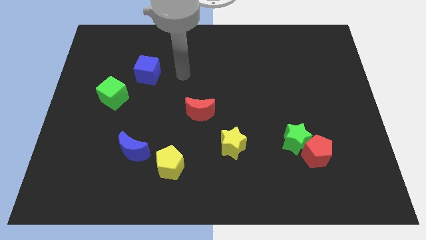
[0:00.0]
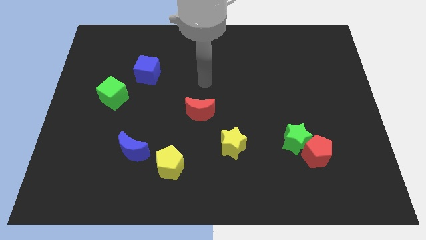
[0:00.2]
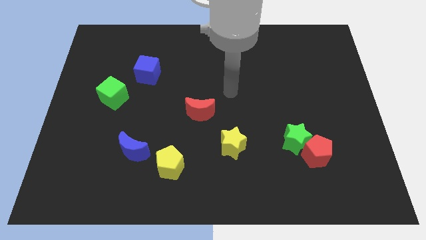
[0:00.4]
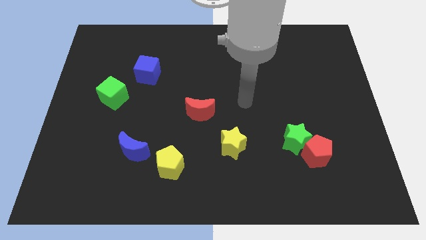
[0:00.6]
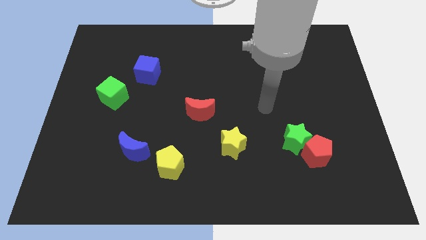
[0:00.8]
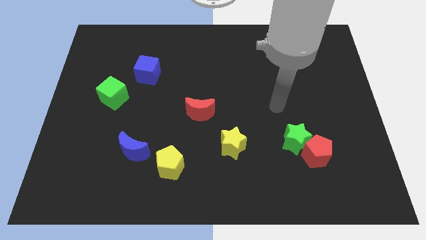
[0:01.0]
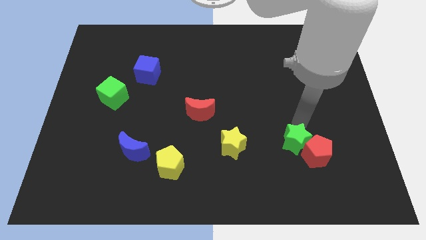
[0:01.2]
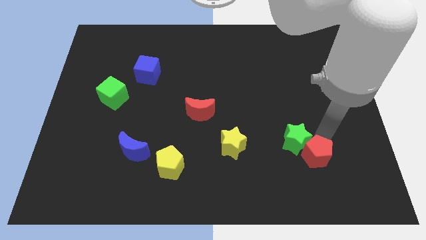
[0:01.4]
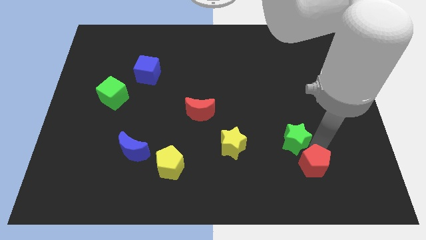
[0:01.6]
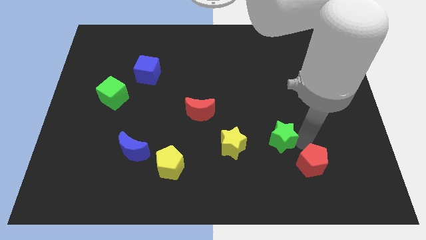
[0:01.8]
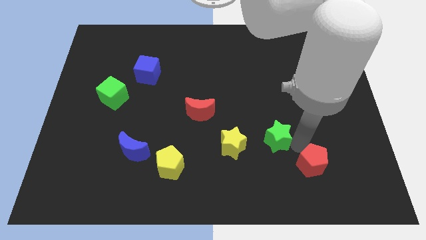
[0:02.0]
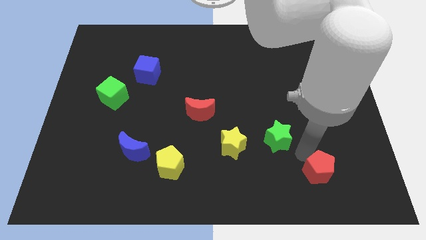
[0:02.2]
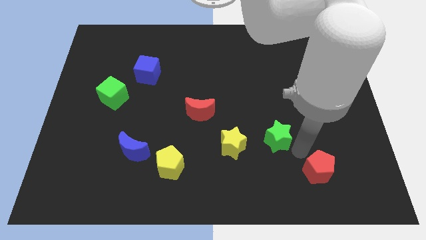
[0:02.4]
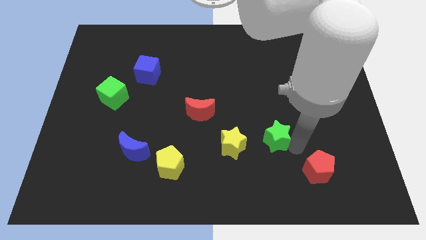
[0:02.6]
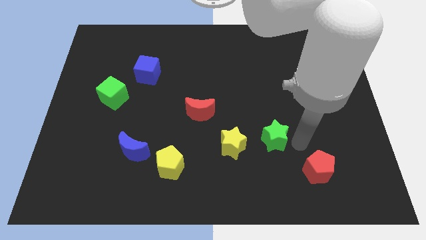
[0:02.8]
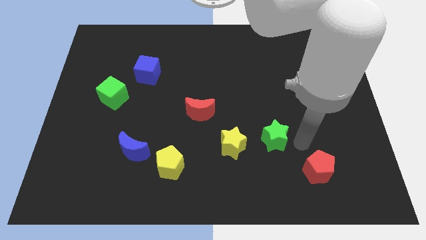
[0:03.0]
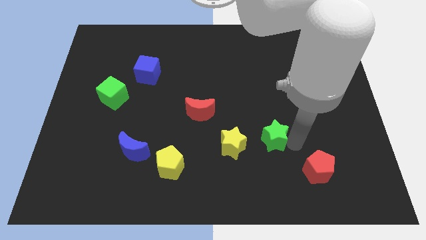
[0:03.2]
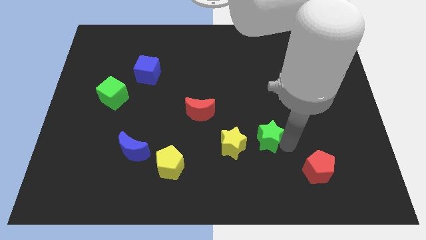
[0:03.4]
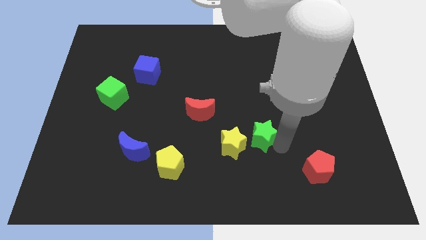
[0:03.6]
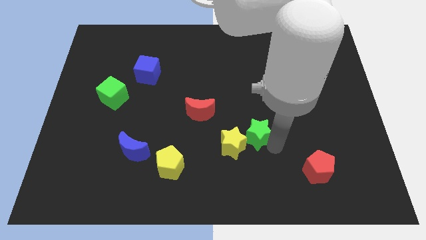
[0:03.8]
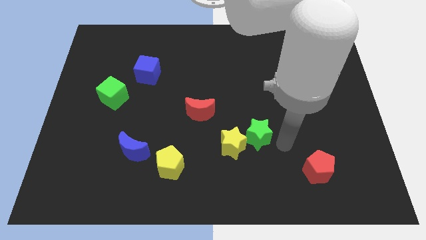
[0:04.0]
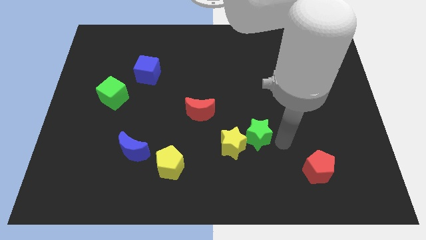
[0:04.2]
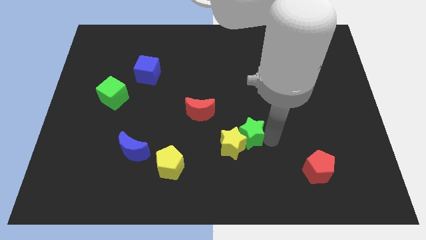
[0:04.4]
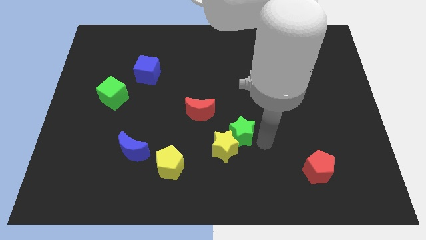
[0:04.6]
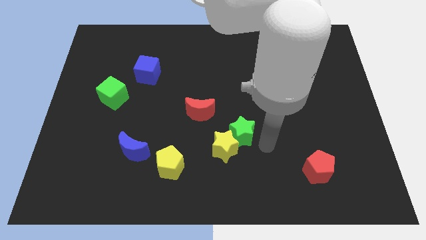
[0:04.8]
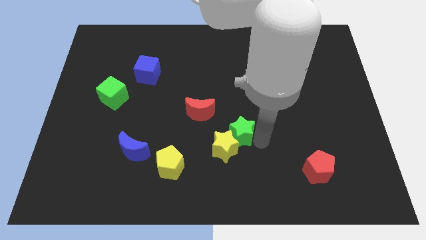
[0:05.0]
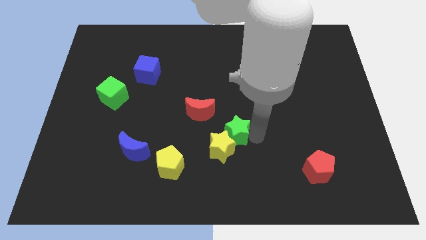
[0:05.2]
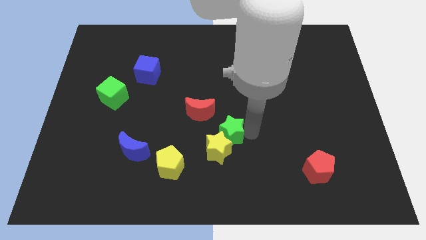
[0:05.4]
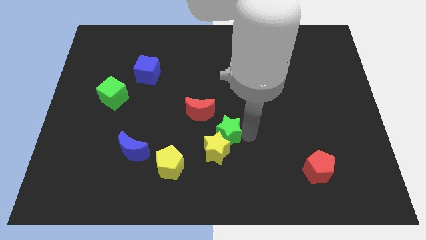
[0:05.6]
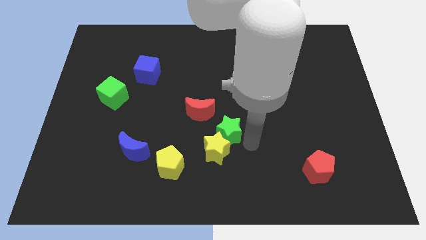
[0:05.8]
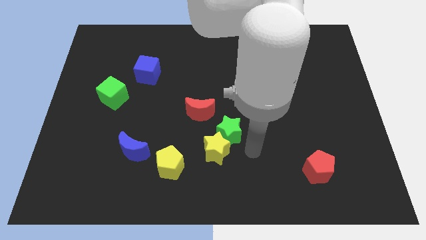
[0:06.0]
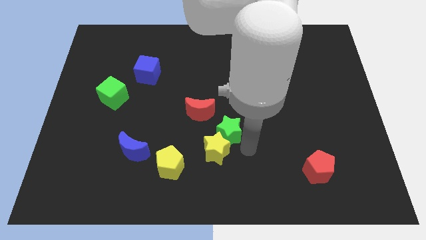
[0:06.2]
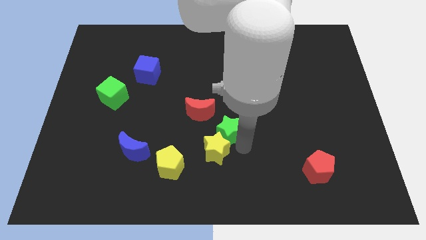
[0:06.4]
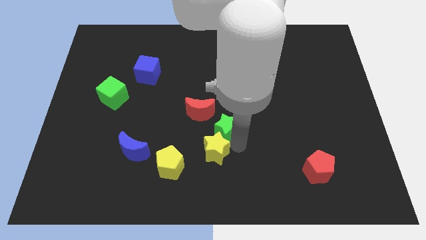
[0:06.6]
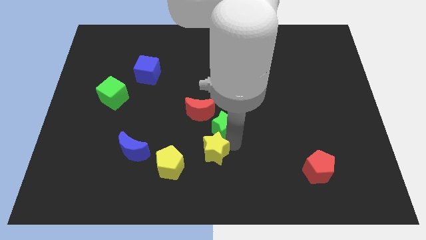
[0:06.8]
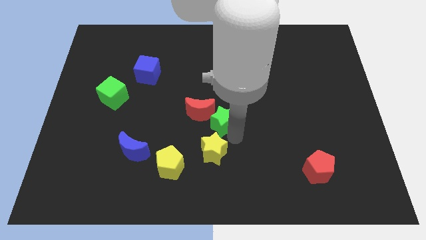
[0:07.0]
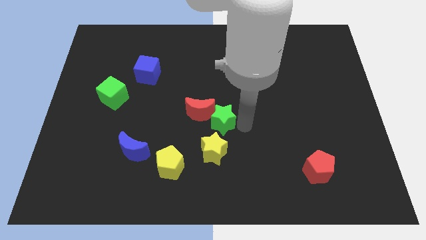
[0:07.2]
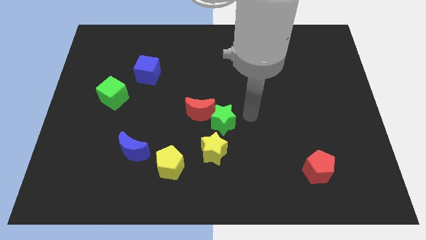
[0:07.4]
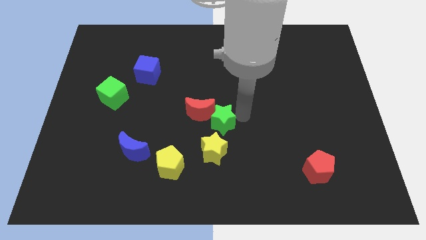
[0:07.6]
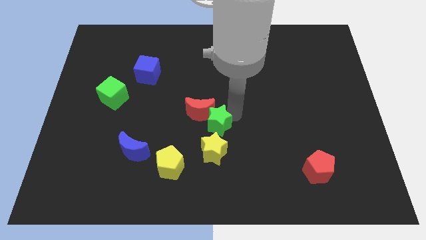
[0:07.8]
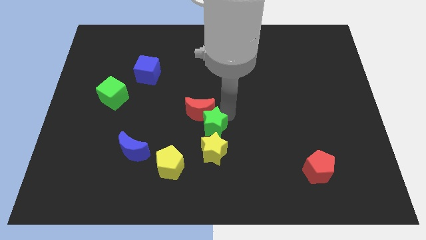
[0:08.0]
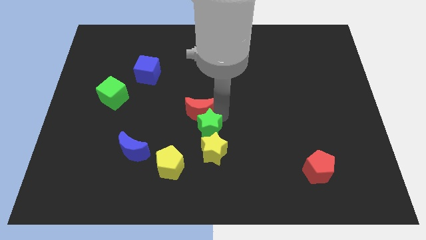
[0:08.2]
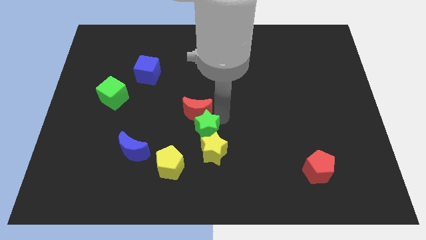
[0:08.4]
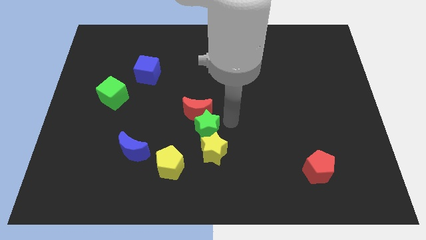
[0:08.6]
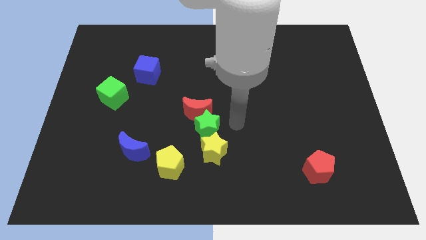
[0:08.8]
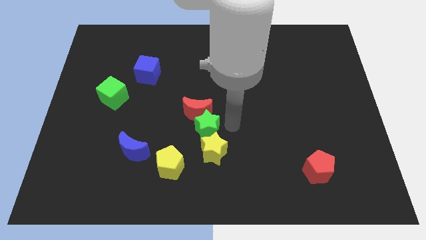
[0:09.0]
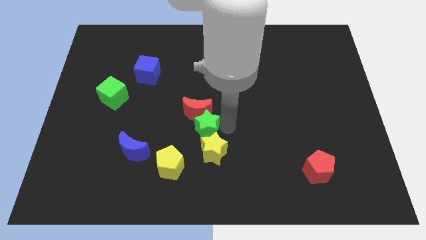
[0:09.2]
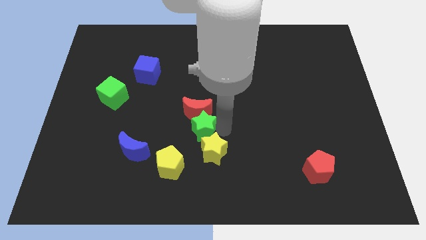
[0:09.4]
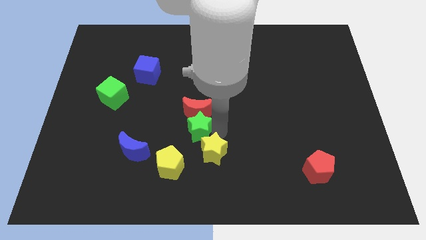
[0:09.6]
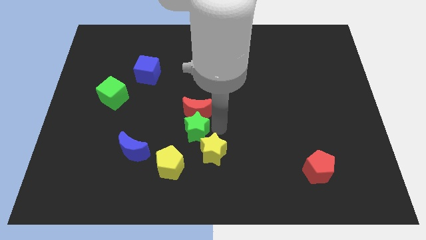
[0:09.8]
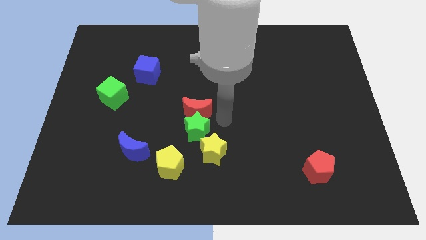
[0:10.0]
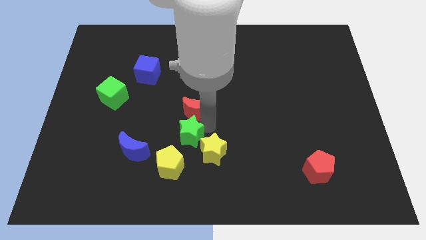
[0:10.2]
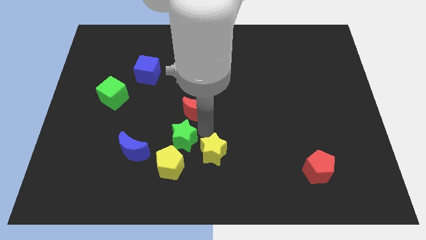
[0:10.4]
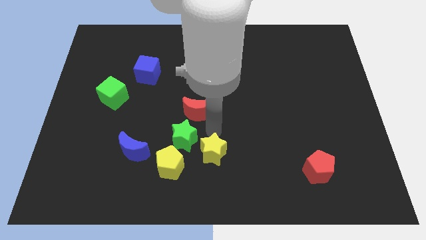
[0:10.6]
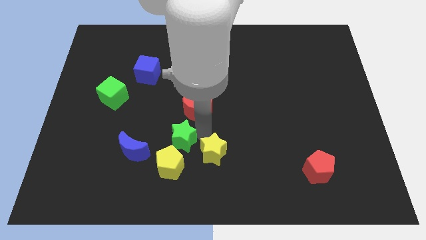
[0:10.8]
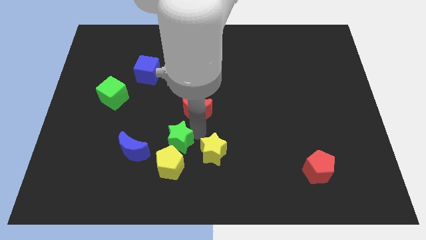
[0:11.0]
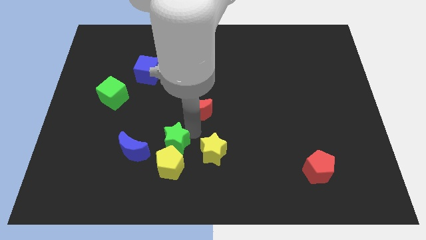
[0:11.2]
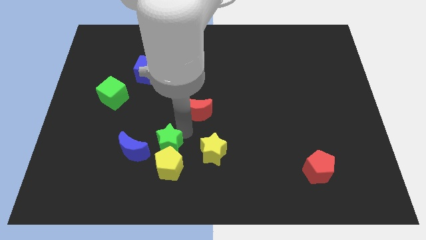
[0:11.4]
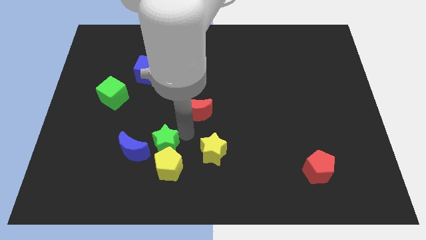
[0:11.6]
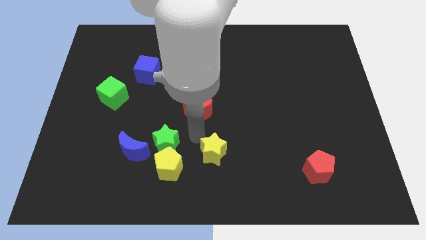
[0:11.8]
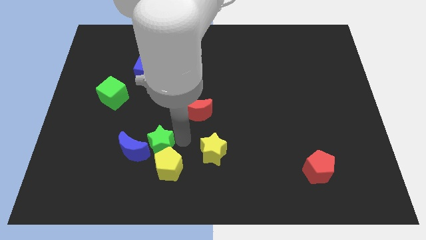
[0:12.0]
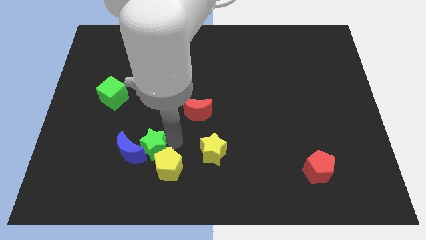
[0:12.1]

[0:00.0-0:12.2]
put the green star next to the blue moon

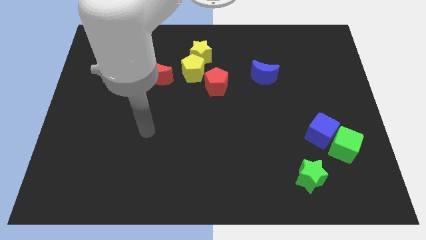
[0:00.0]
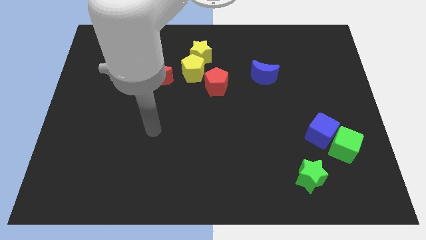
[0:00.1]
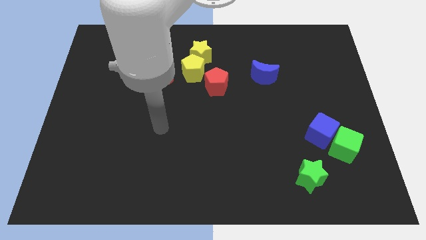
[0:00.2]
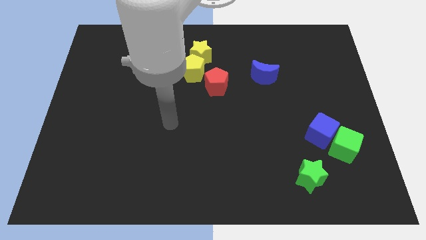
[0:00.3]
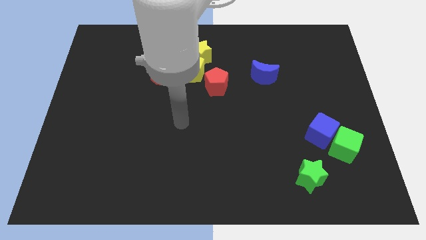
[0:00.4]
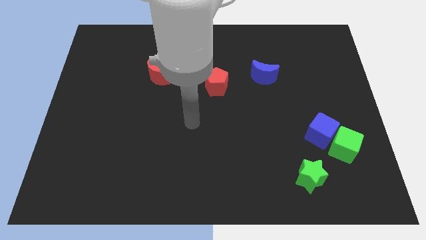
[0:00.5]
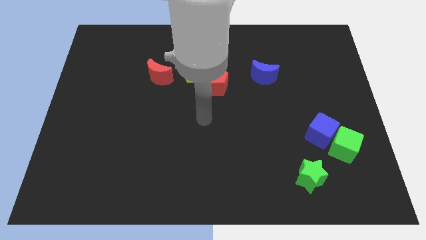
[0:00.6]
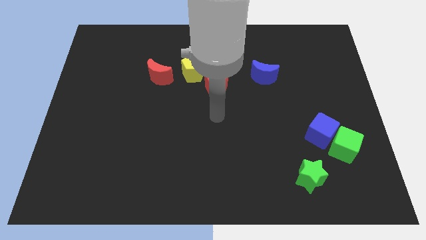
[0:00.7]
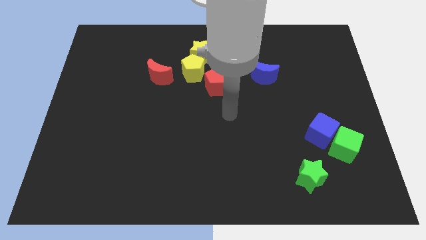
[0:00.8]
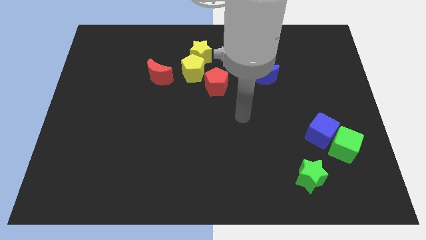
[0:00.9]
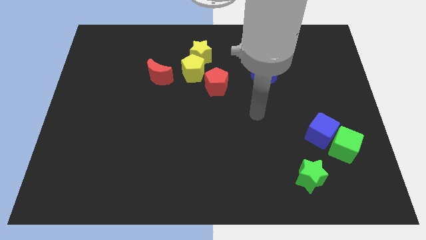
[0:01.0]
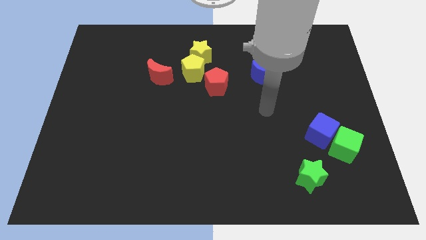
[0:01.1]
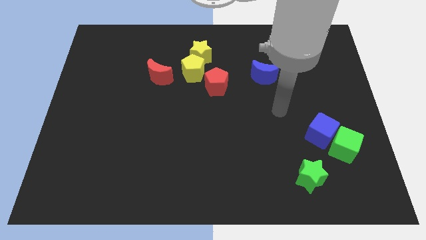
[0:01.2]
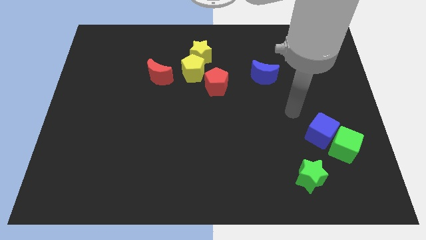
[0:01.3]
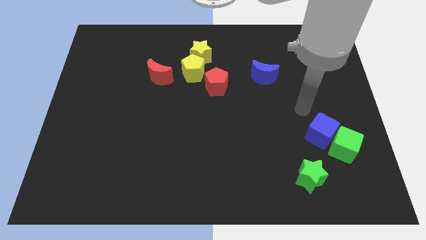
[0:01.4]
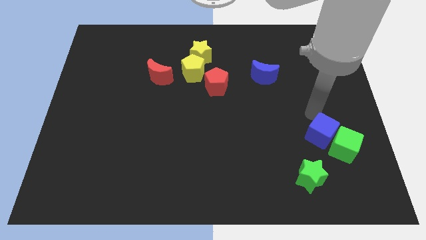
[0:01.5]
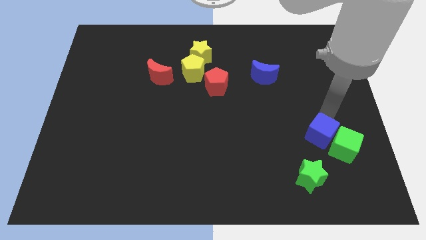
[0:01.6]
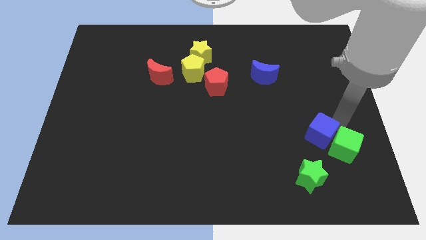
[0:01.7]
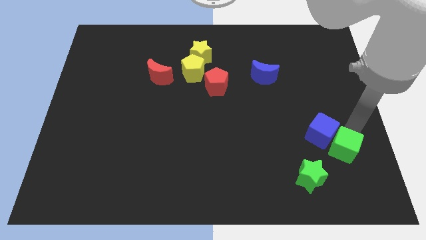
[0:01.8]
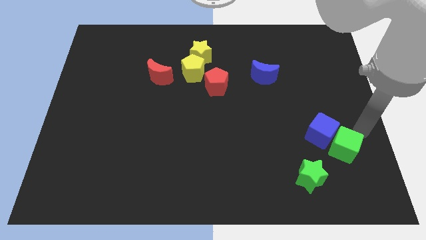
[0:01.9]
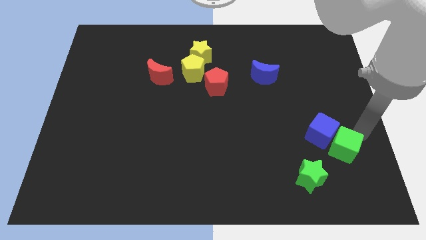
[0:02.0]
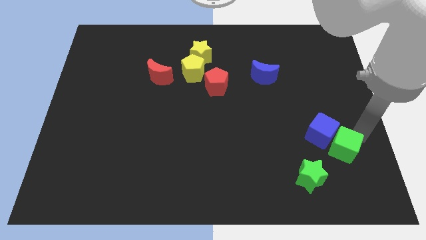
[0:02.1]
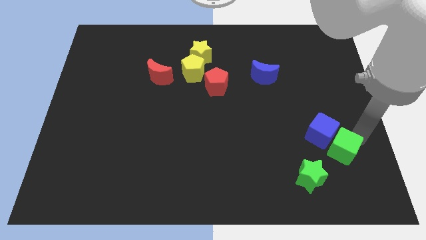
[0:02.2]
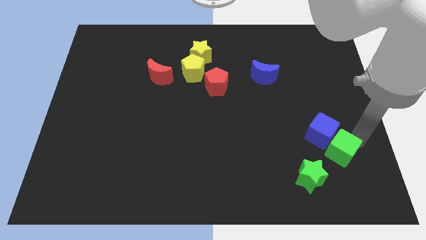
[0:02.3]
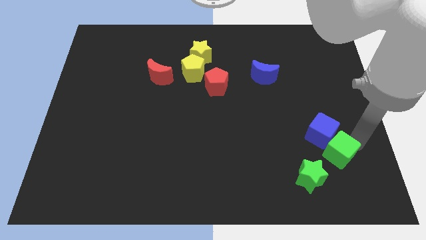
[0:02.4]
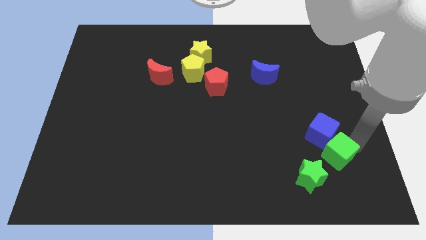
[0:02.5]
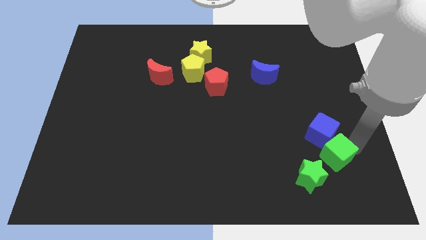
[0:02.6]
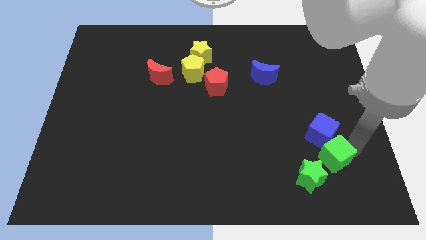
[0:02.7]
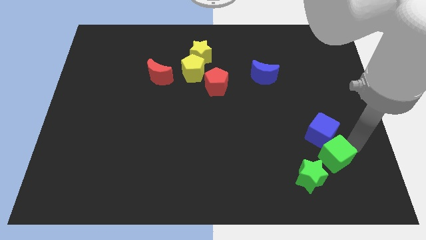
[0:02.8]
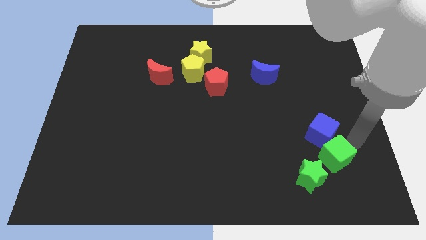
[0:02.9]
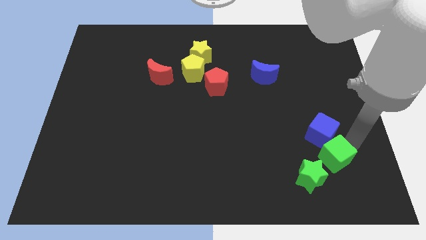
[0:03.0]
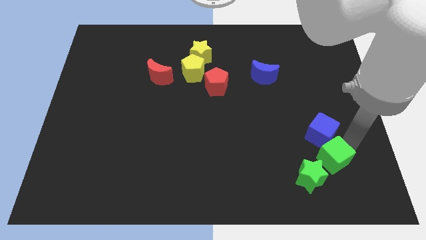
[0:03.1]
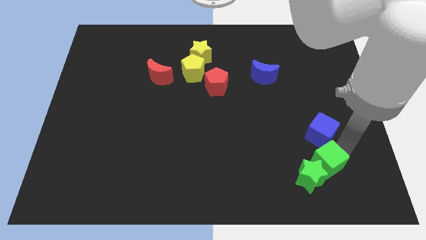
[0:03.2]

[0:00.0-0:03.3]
slide the green cube to the green star
